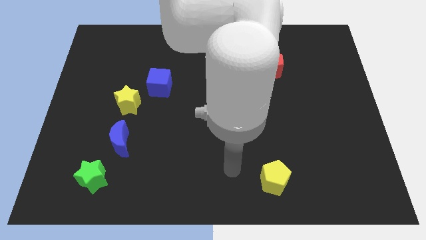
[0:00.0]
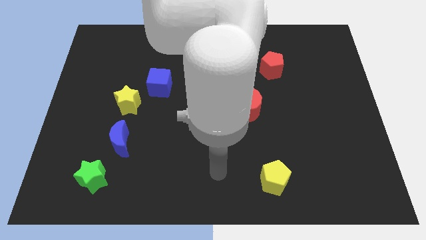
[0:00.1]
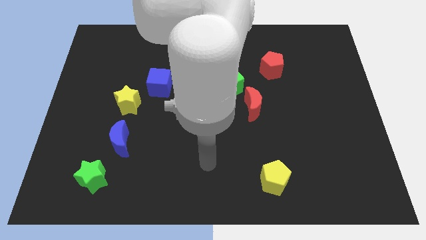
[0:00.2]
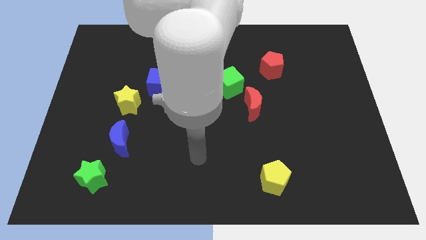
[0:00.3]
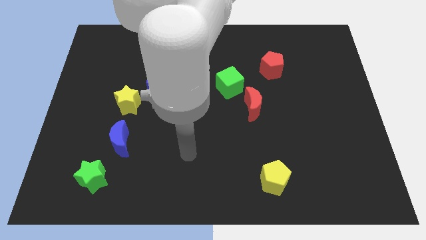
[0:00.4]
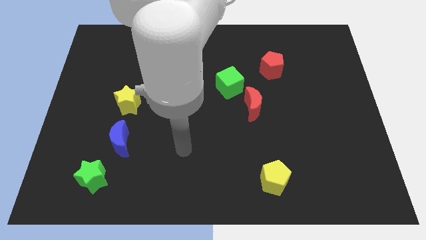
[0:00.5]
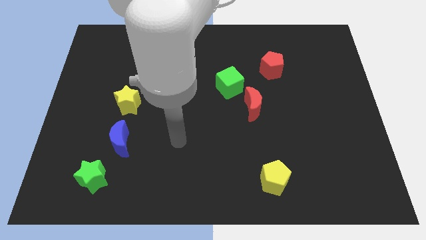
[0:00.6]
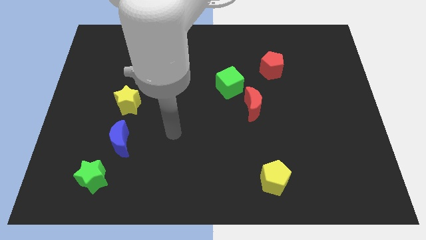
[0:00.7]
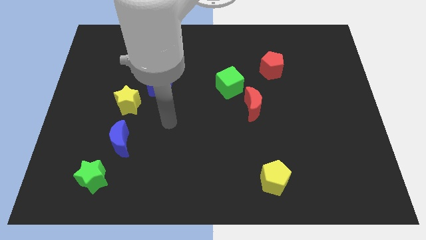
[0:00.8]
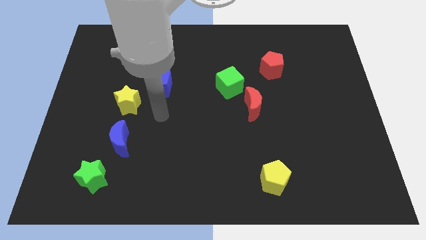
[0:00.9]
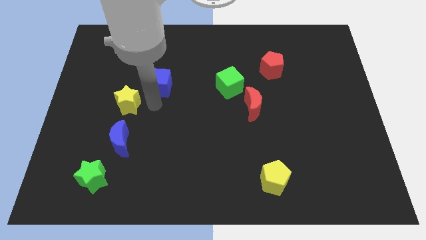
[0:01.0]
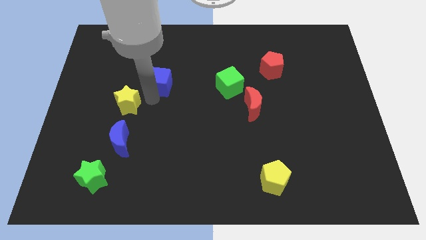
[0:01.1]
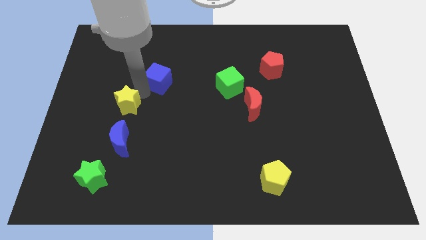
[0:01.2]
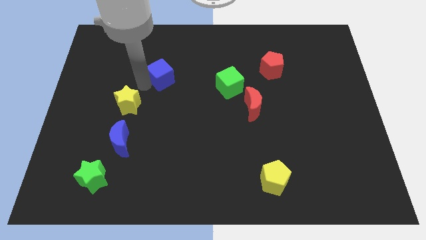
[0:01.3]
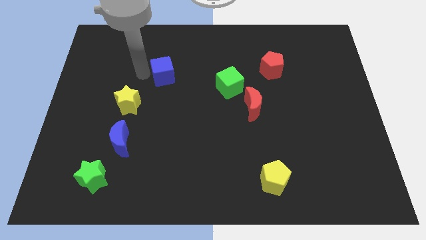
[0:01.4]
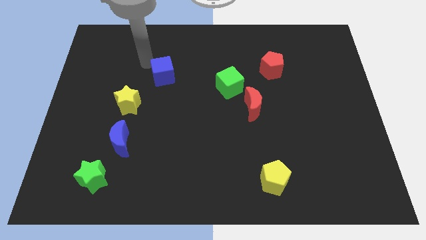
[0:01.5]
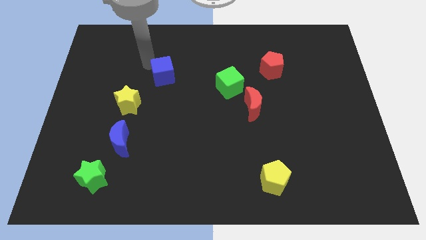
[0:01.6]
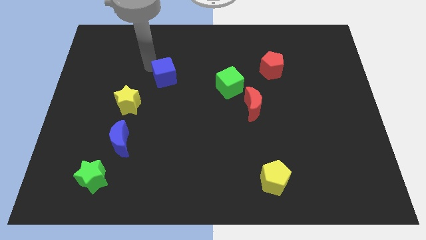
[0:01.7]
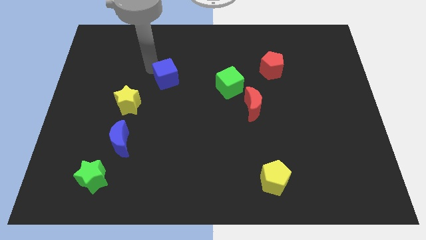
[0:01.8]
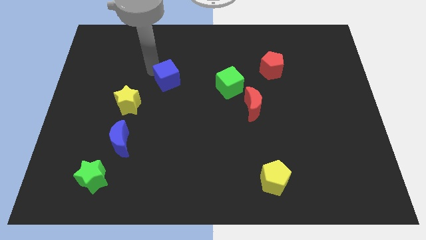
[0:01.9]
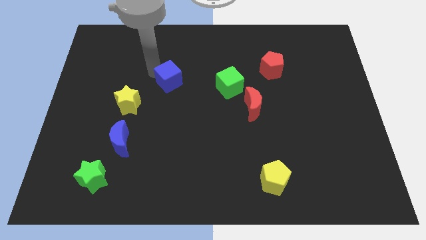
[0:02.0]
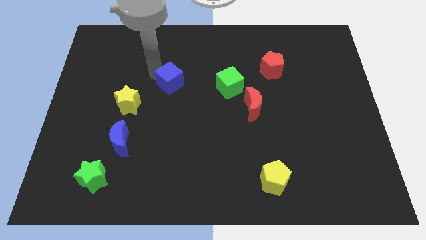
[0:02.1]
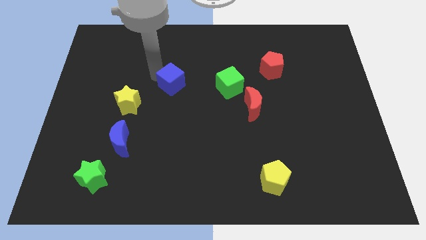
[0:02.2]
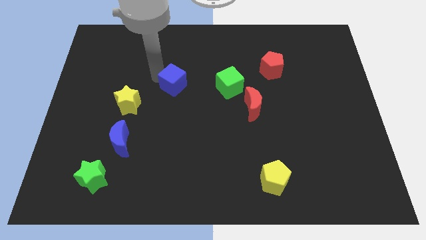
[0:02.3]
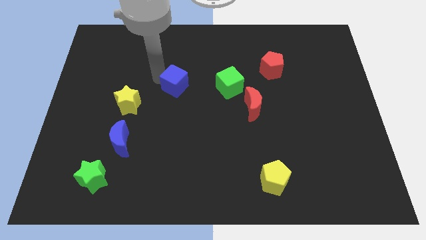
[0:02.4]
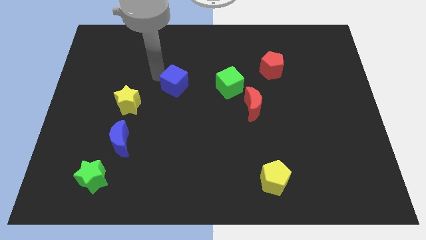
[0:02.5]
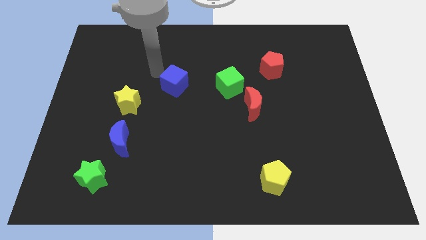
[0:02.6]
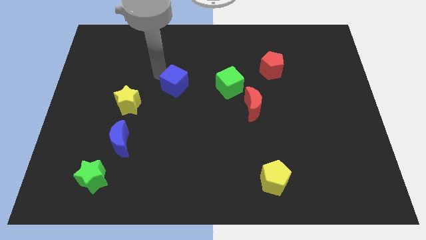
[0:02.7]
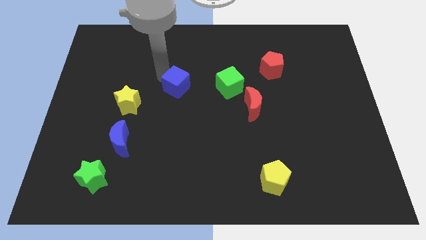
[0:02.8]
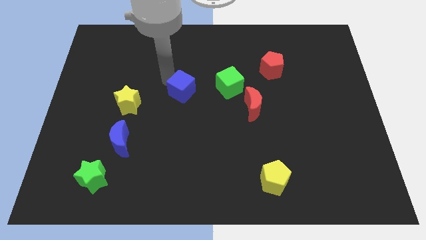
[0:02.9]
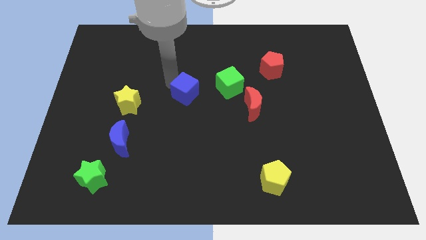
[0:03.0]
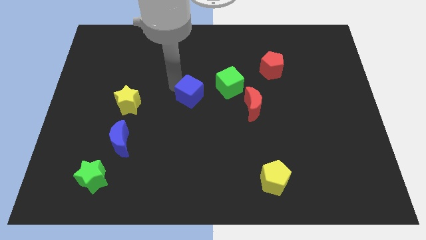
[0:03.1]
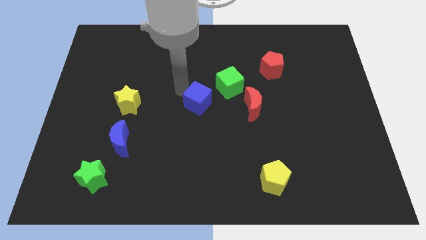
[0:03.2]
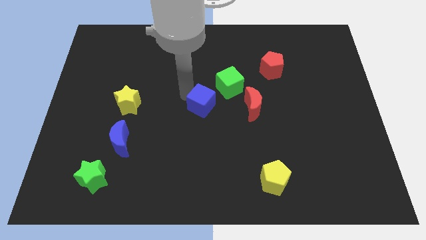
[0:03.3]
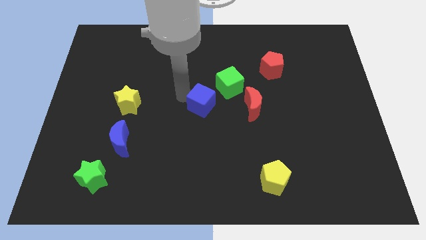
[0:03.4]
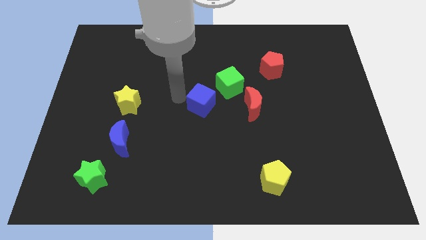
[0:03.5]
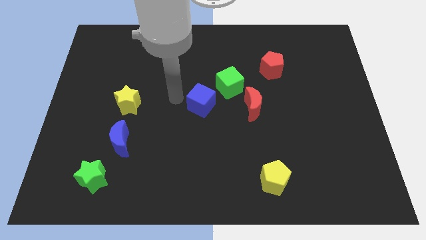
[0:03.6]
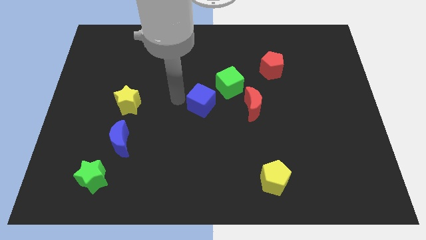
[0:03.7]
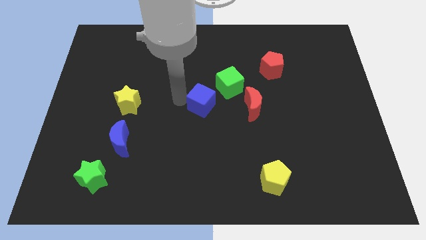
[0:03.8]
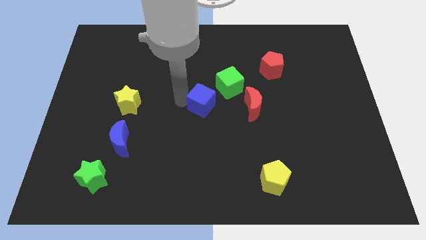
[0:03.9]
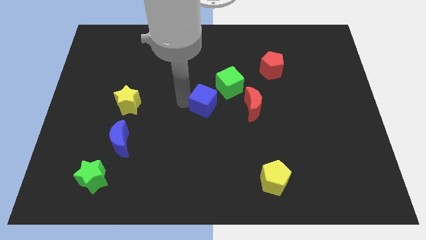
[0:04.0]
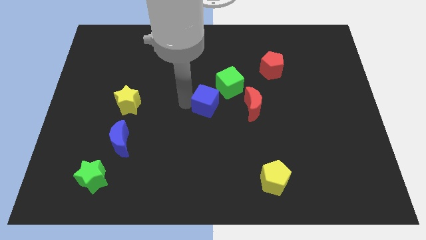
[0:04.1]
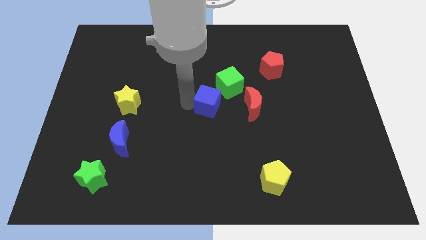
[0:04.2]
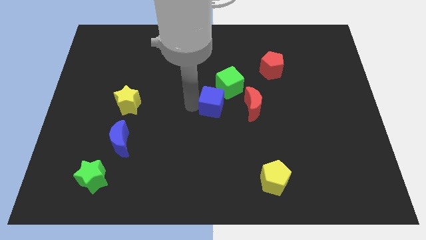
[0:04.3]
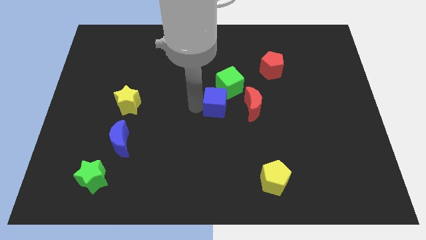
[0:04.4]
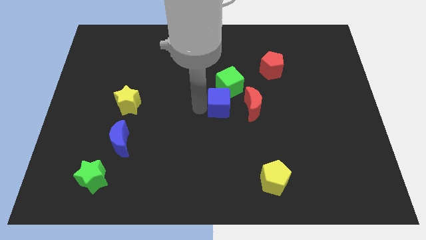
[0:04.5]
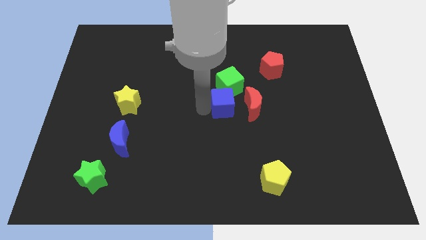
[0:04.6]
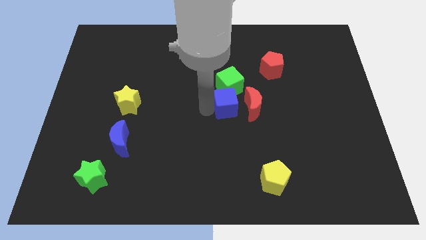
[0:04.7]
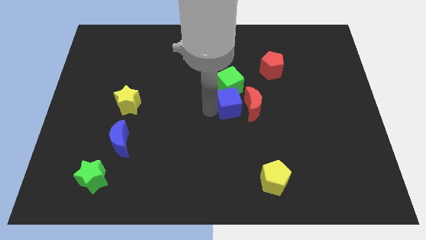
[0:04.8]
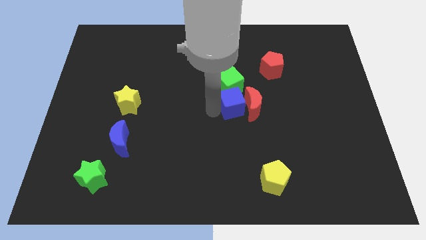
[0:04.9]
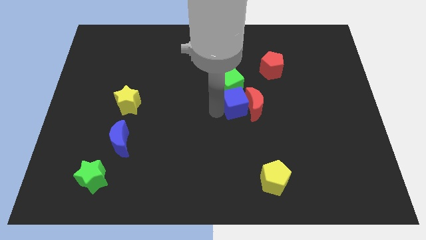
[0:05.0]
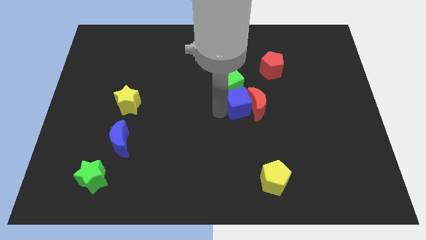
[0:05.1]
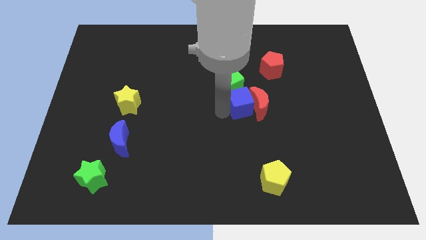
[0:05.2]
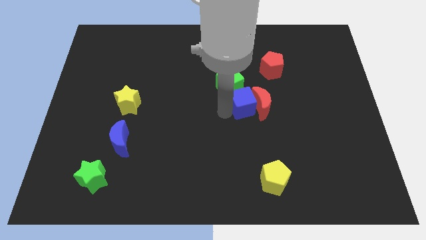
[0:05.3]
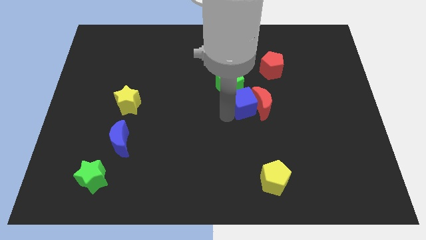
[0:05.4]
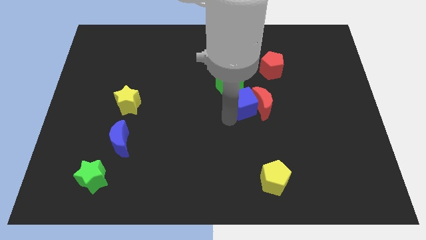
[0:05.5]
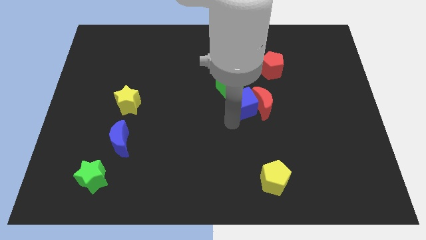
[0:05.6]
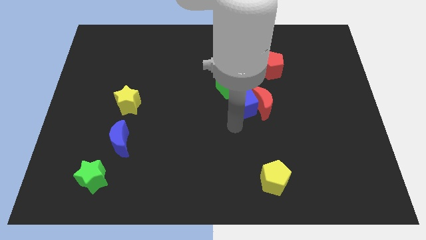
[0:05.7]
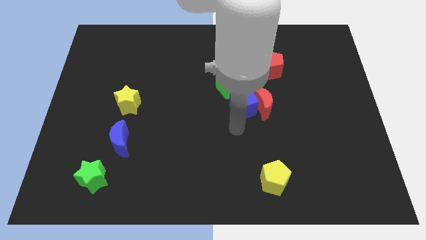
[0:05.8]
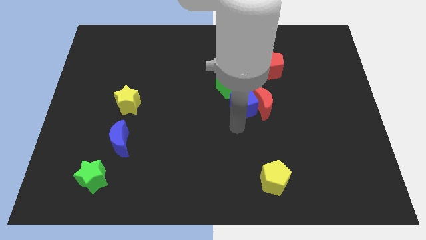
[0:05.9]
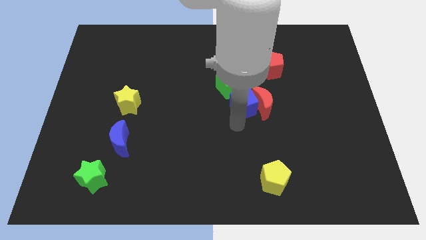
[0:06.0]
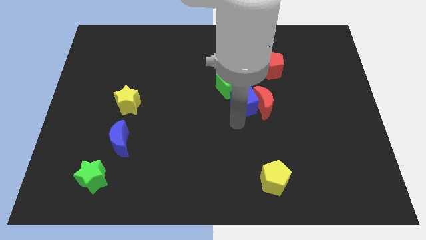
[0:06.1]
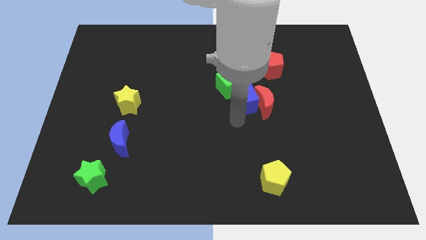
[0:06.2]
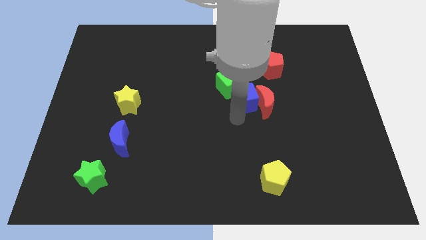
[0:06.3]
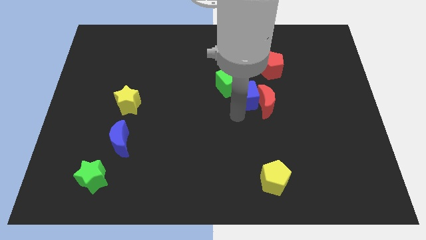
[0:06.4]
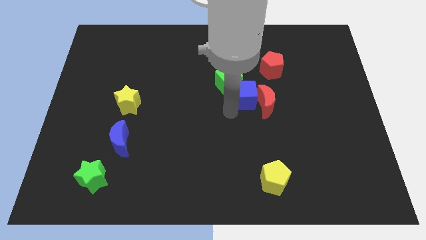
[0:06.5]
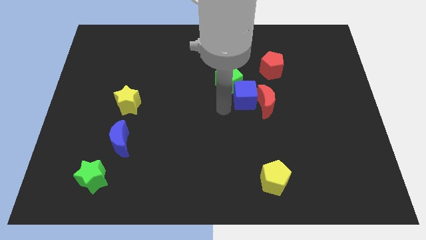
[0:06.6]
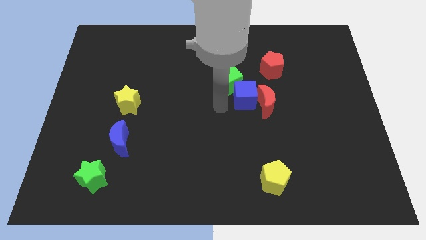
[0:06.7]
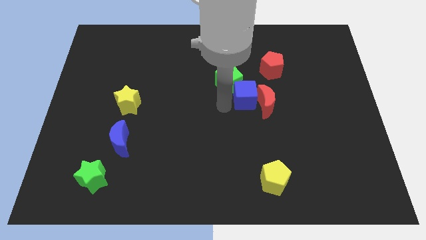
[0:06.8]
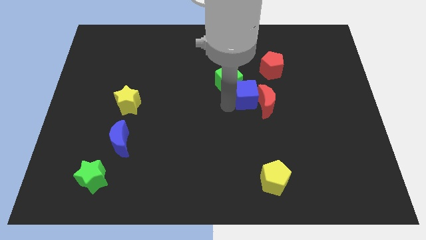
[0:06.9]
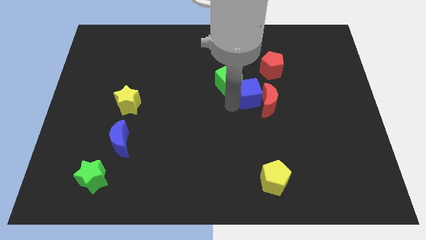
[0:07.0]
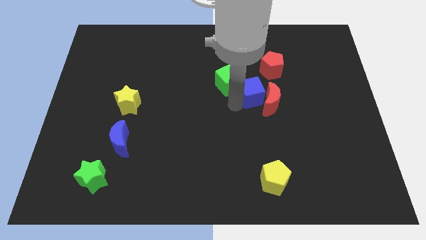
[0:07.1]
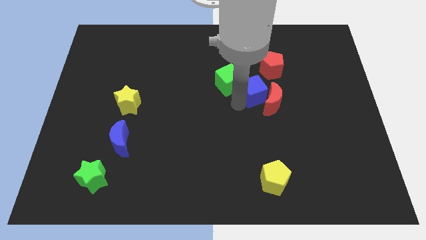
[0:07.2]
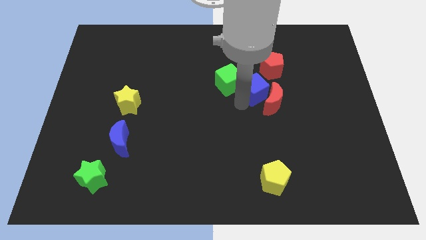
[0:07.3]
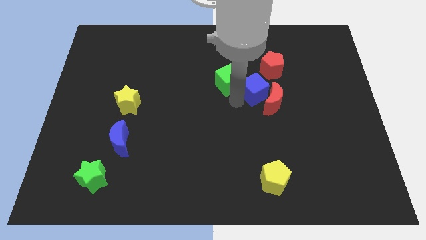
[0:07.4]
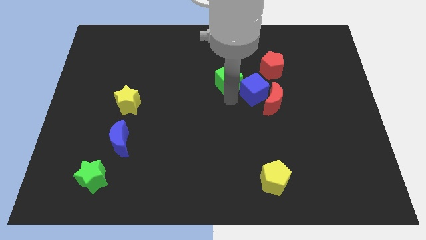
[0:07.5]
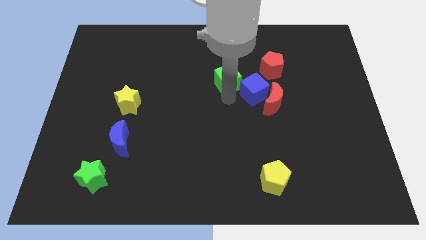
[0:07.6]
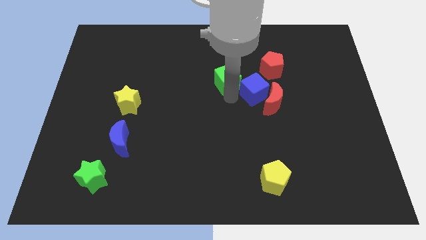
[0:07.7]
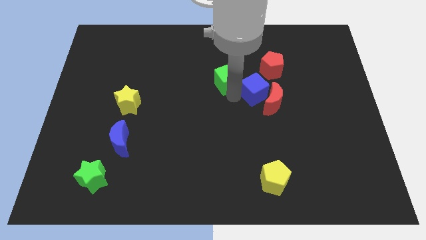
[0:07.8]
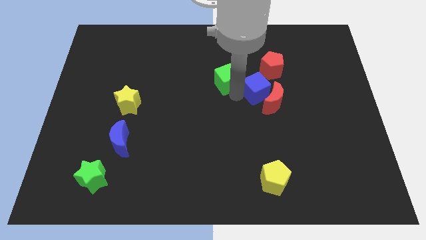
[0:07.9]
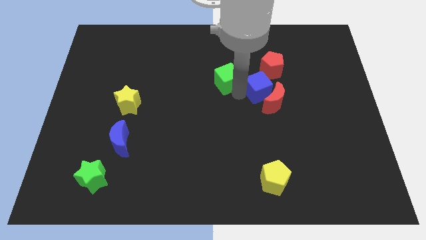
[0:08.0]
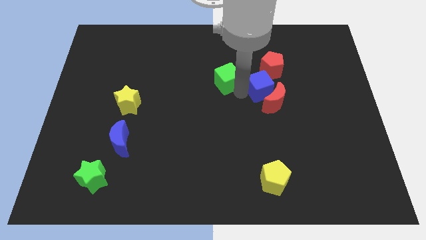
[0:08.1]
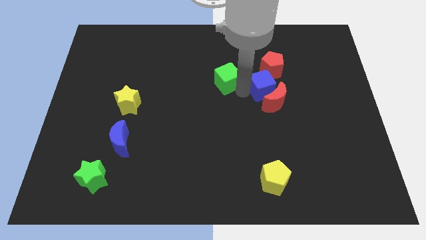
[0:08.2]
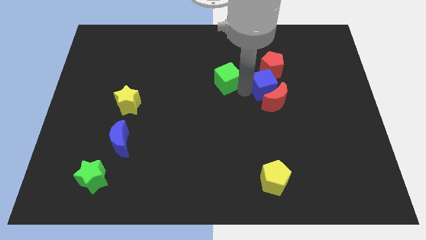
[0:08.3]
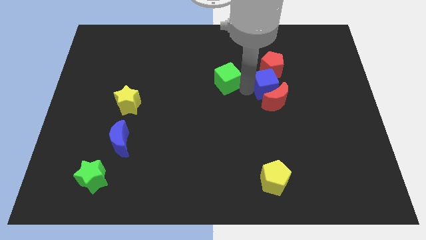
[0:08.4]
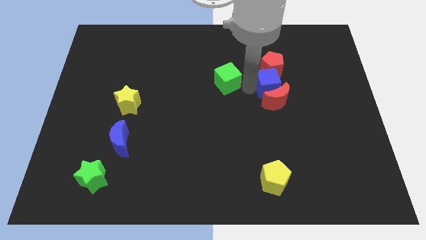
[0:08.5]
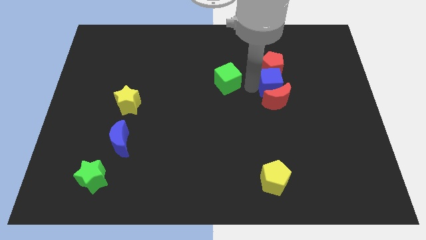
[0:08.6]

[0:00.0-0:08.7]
put the blue cube diagonally down and to the right of the red pentagon
